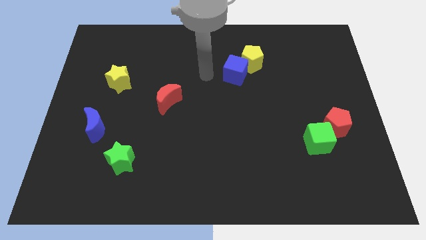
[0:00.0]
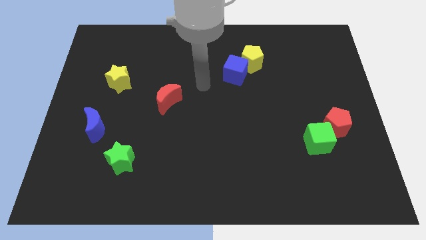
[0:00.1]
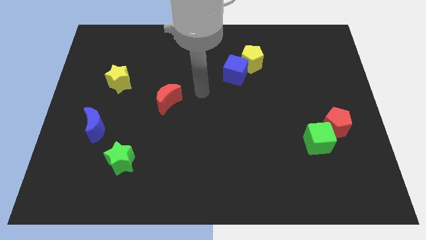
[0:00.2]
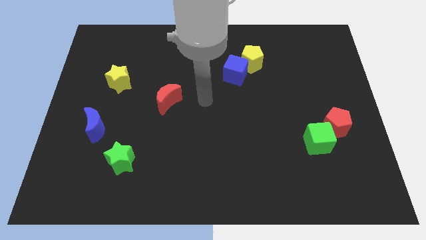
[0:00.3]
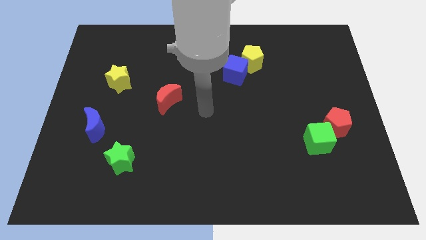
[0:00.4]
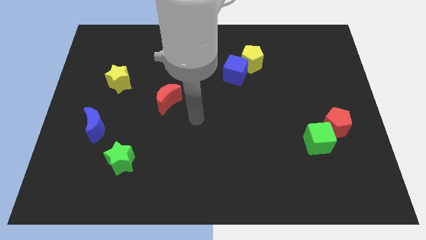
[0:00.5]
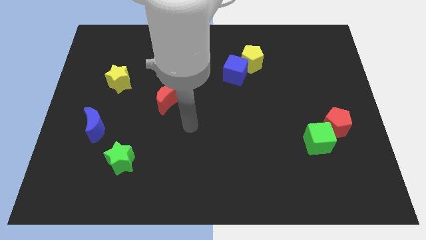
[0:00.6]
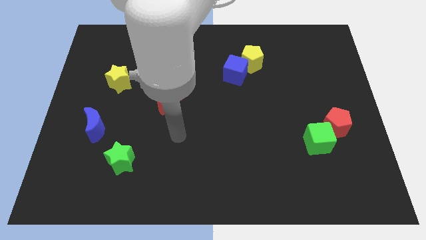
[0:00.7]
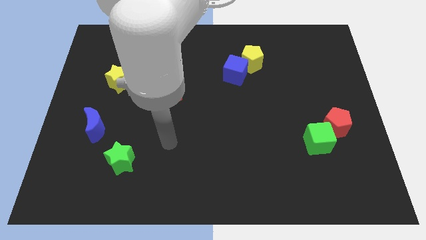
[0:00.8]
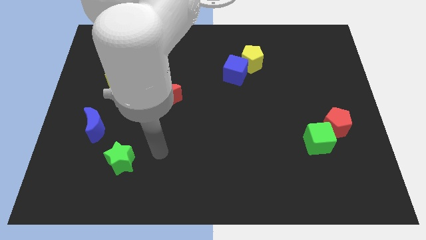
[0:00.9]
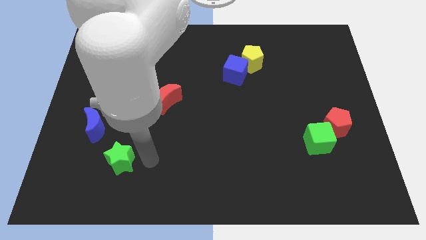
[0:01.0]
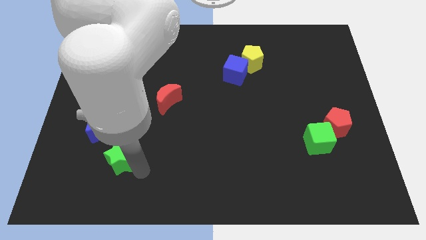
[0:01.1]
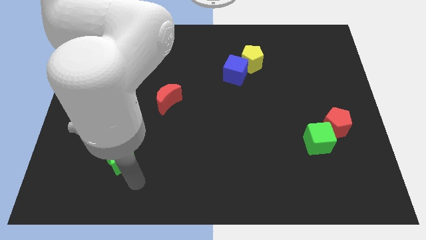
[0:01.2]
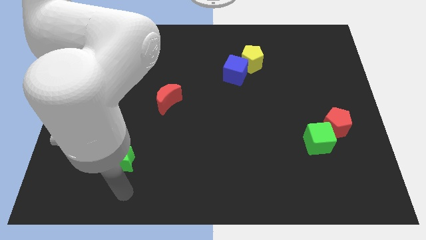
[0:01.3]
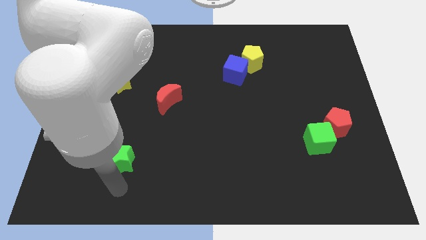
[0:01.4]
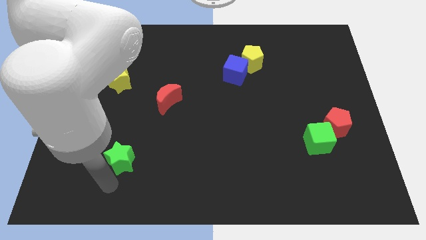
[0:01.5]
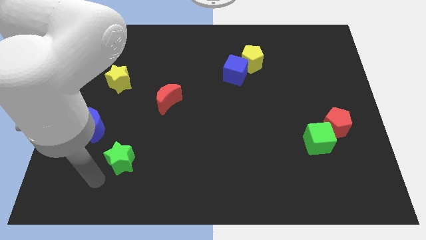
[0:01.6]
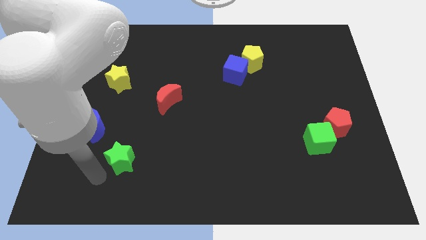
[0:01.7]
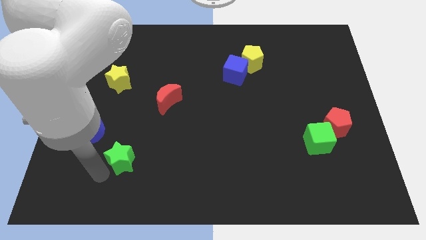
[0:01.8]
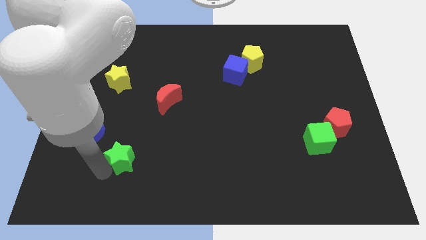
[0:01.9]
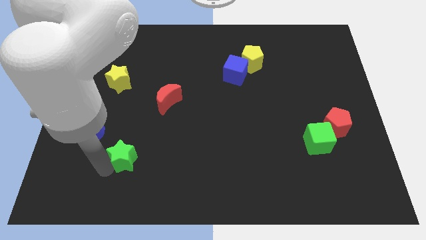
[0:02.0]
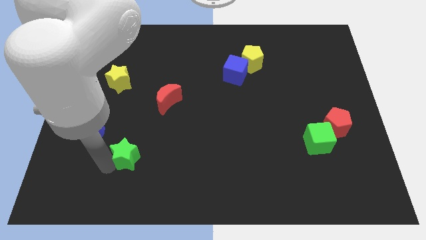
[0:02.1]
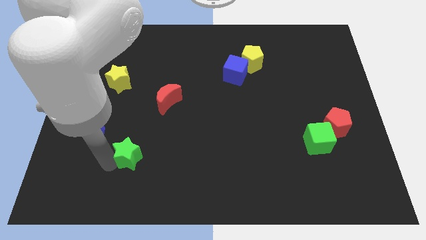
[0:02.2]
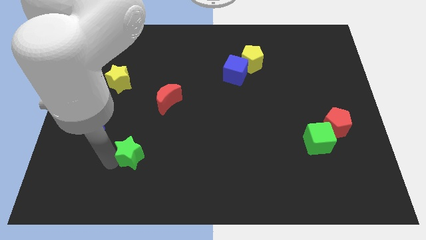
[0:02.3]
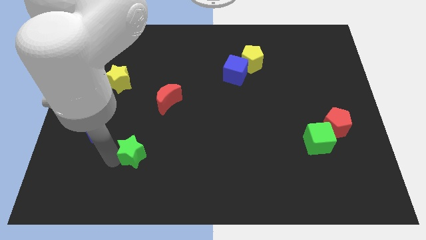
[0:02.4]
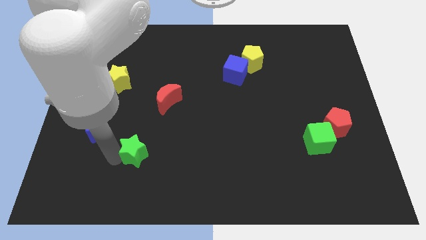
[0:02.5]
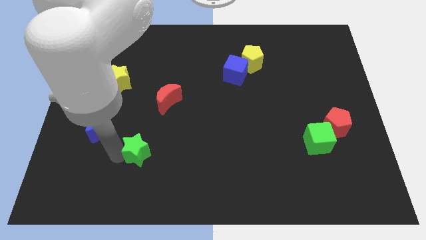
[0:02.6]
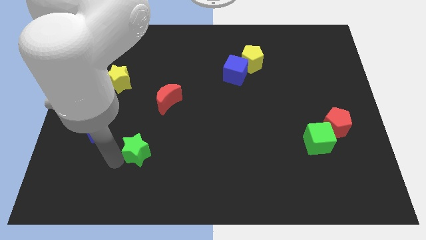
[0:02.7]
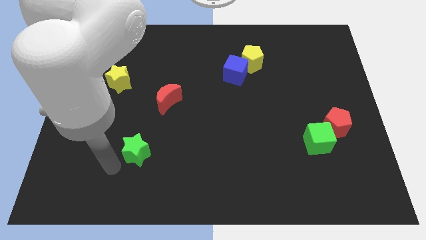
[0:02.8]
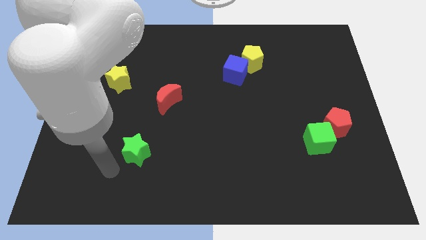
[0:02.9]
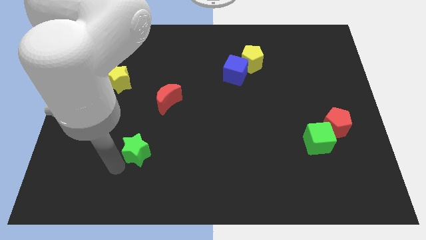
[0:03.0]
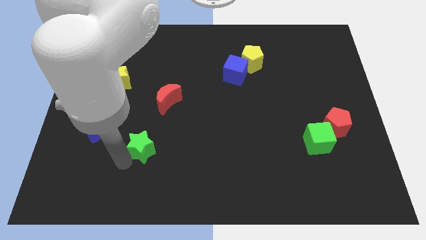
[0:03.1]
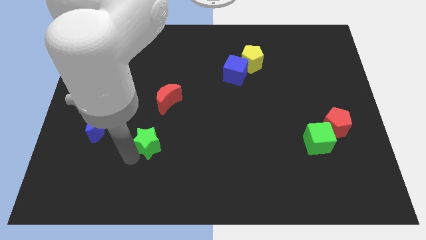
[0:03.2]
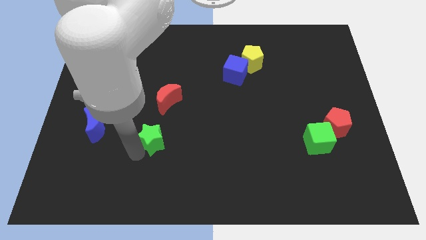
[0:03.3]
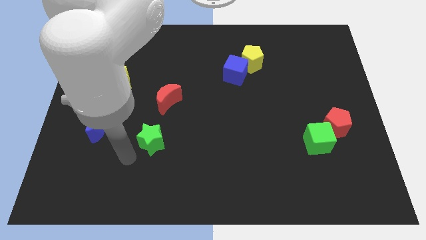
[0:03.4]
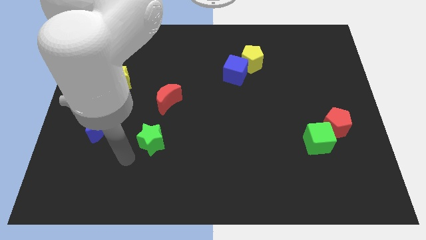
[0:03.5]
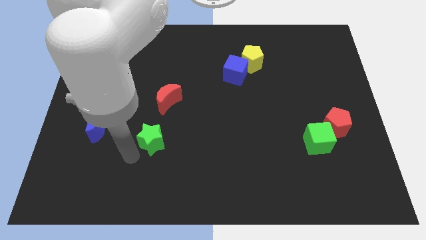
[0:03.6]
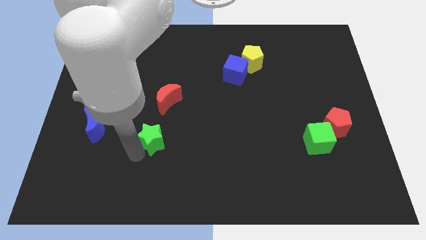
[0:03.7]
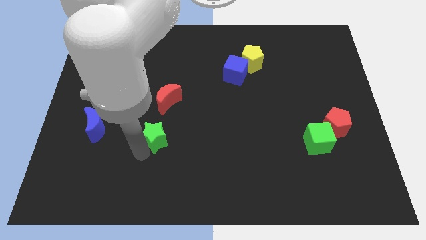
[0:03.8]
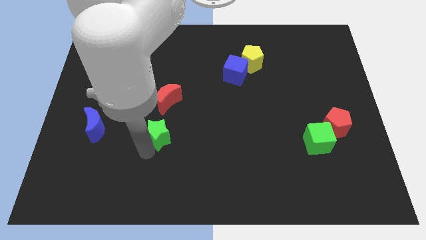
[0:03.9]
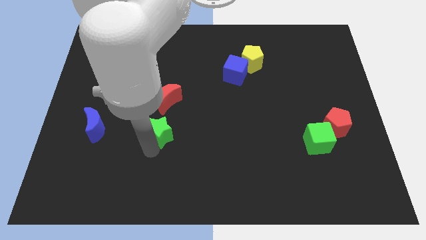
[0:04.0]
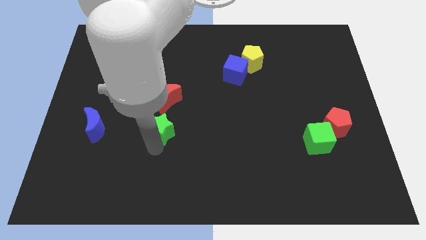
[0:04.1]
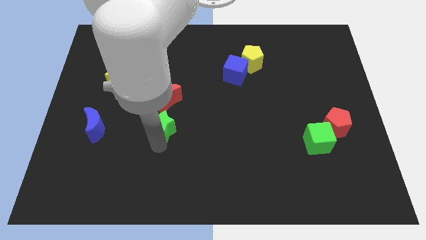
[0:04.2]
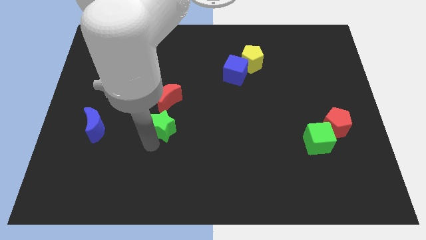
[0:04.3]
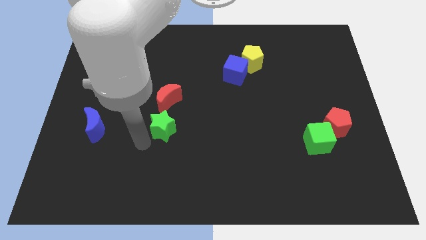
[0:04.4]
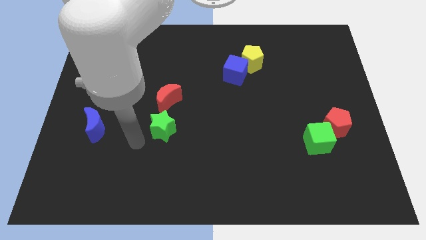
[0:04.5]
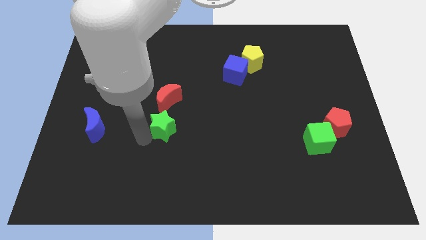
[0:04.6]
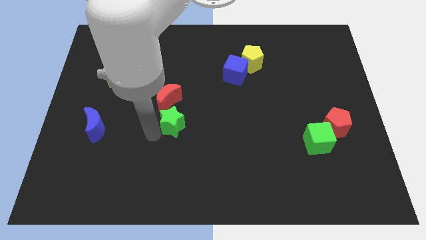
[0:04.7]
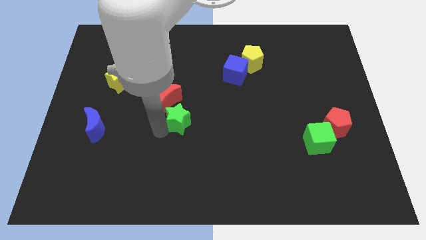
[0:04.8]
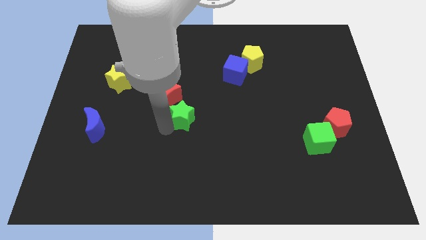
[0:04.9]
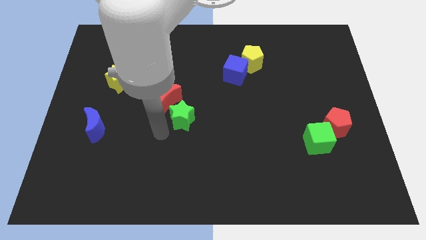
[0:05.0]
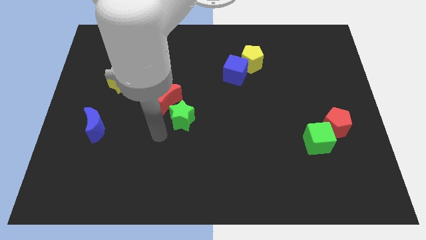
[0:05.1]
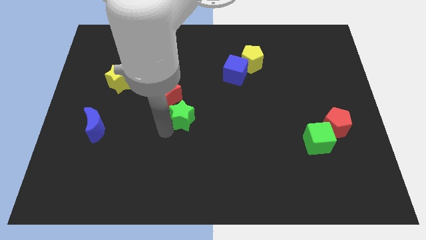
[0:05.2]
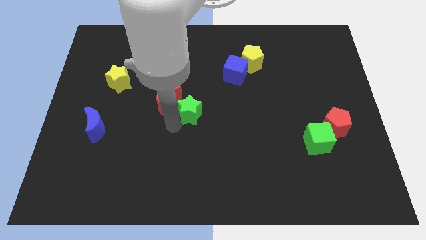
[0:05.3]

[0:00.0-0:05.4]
slide the green star to the right side of the red moon
